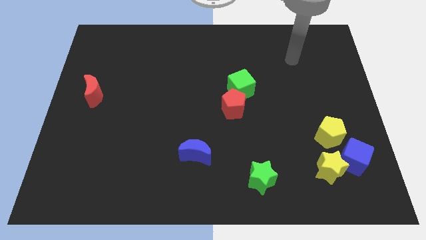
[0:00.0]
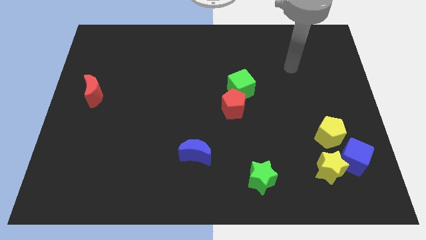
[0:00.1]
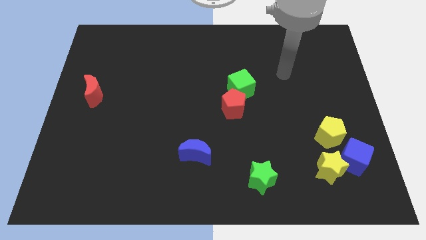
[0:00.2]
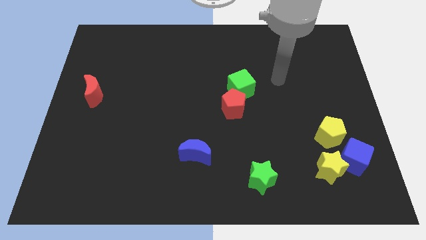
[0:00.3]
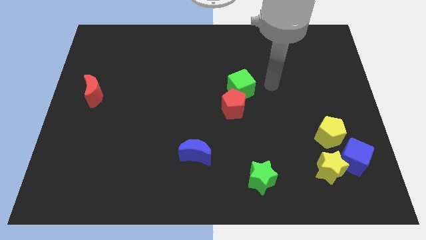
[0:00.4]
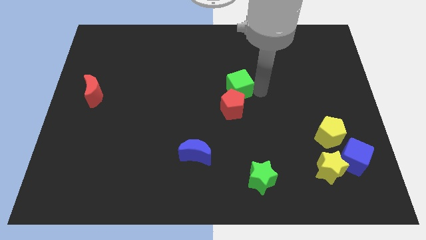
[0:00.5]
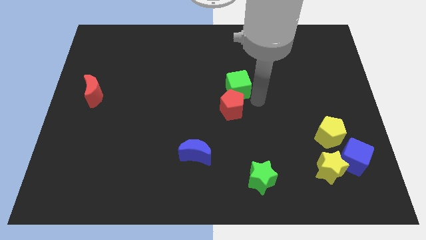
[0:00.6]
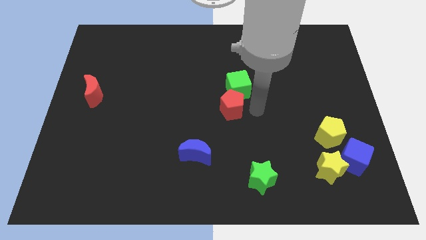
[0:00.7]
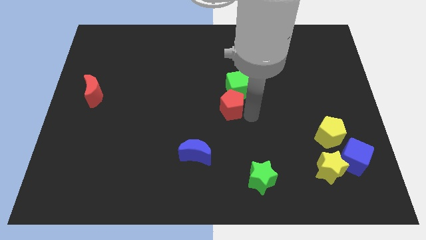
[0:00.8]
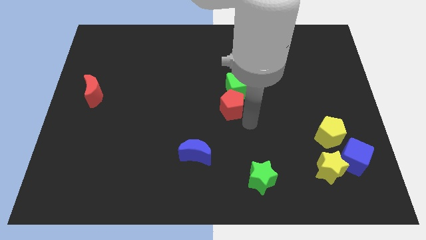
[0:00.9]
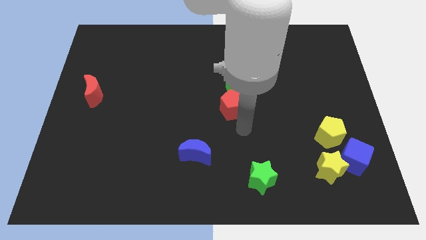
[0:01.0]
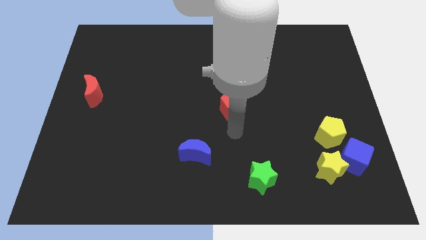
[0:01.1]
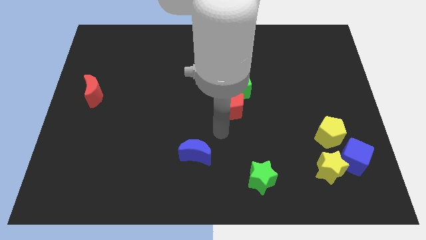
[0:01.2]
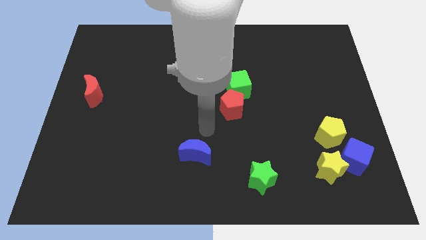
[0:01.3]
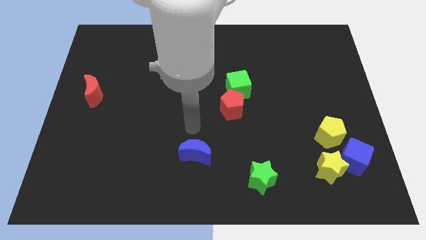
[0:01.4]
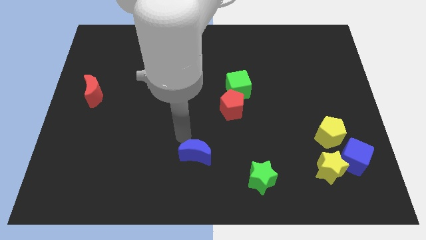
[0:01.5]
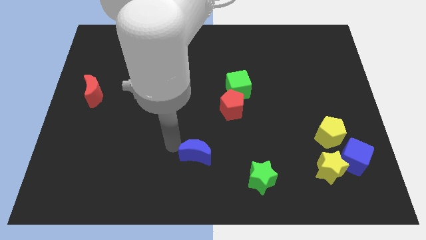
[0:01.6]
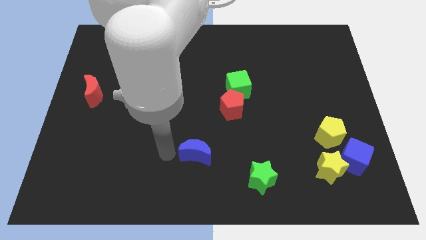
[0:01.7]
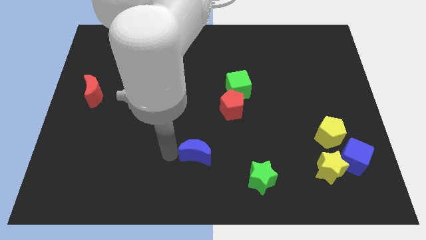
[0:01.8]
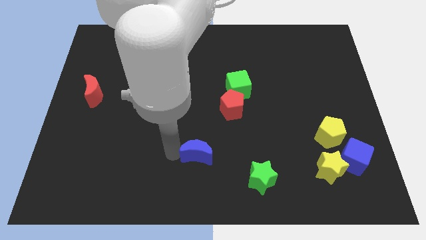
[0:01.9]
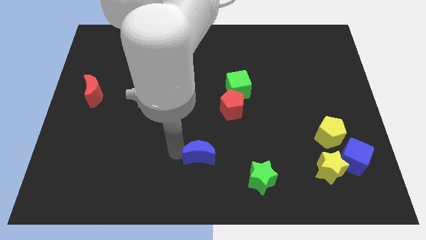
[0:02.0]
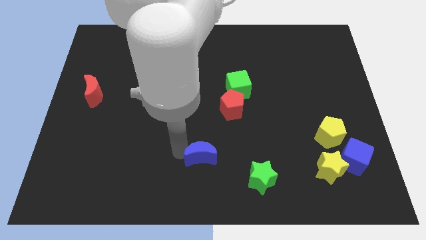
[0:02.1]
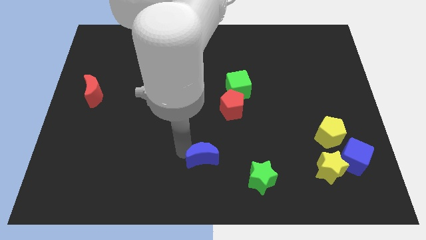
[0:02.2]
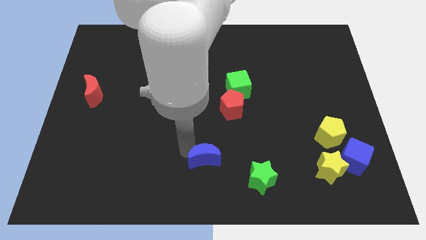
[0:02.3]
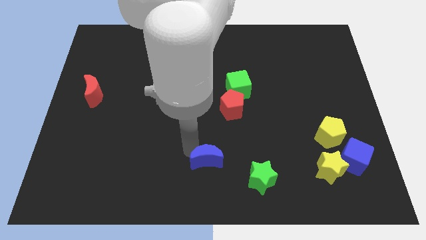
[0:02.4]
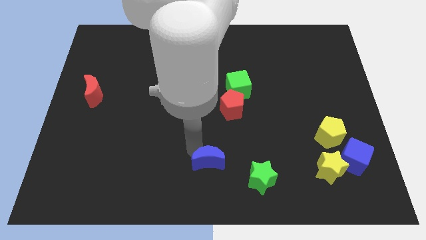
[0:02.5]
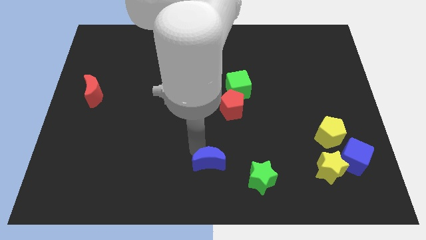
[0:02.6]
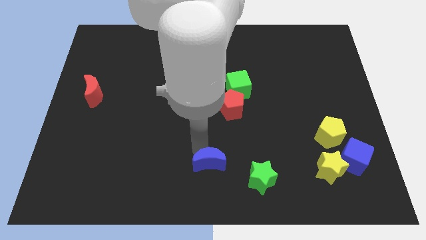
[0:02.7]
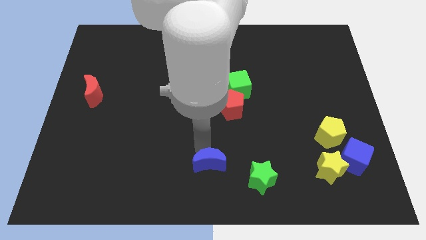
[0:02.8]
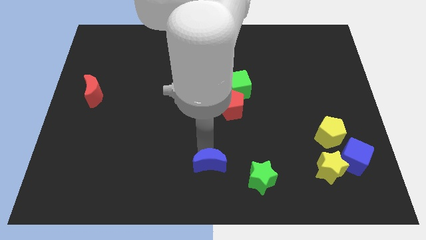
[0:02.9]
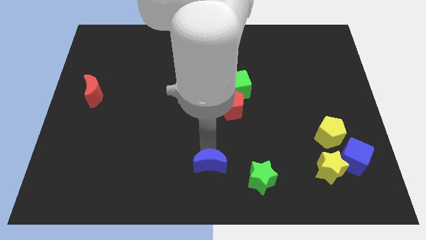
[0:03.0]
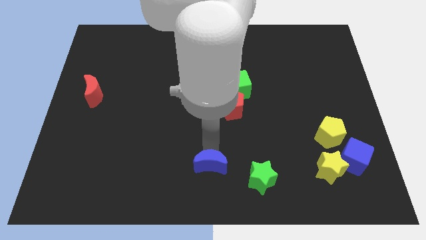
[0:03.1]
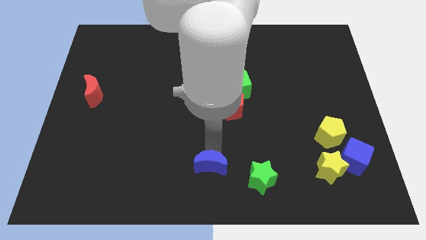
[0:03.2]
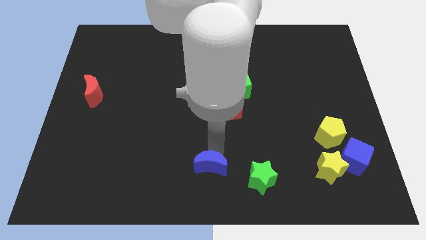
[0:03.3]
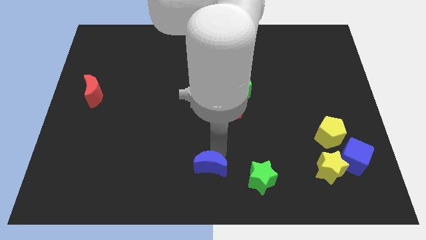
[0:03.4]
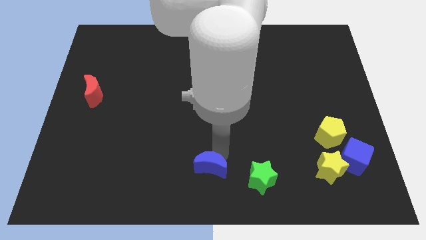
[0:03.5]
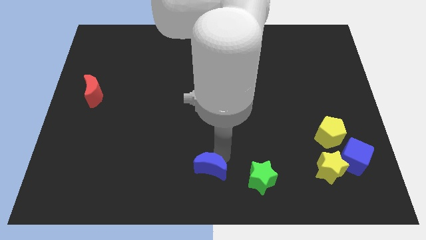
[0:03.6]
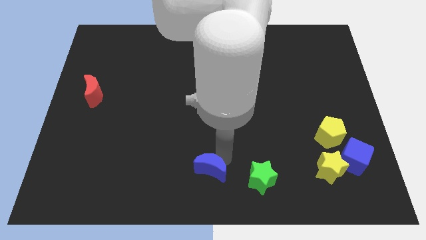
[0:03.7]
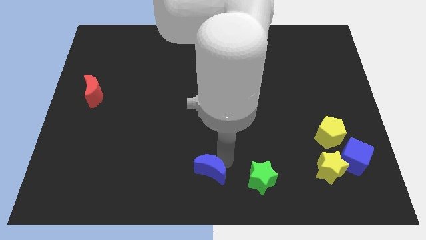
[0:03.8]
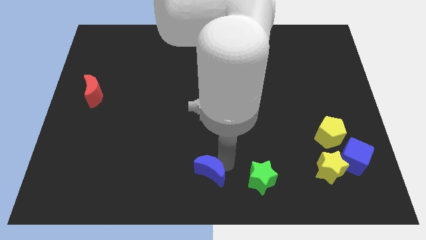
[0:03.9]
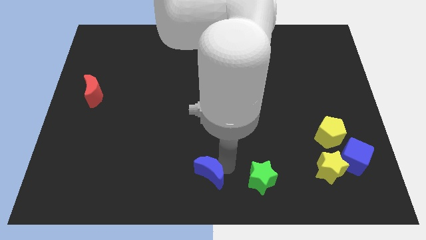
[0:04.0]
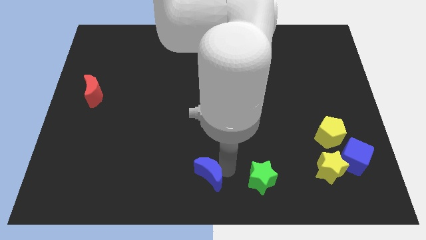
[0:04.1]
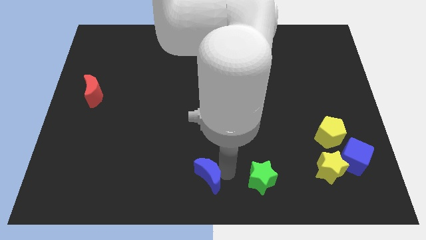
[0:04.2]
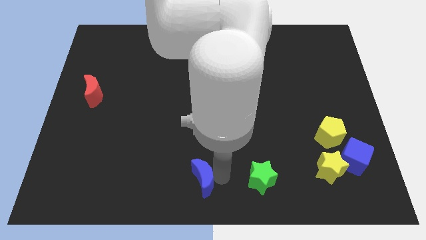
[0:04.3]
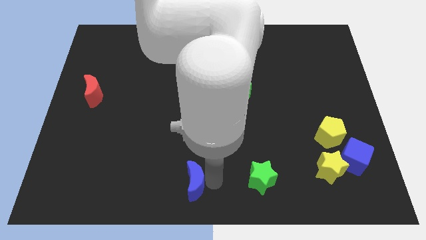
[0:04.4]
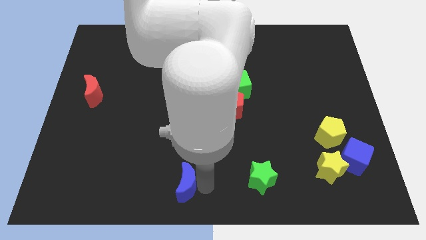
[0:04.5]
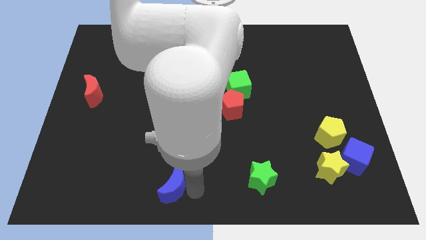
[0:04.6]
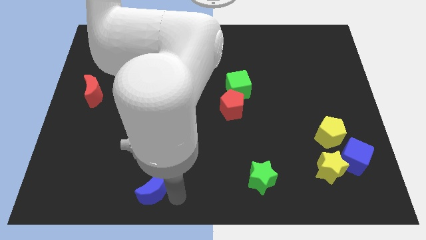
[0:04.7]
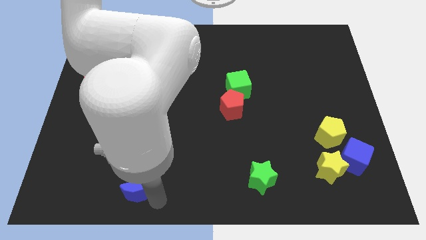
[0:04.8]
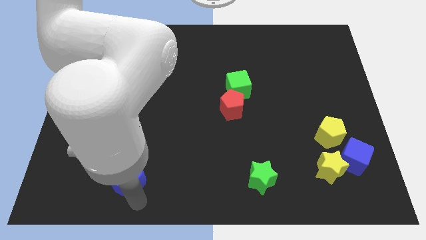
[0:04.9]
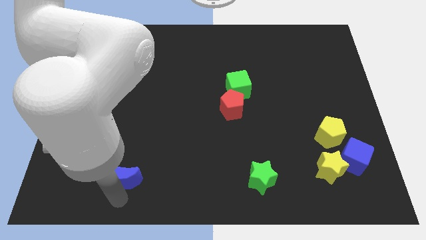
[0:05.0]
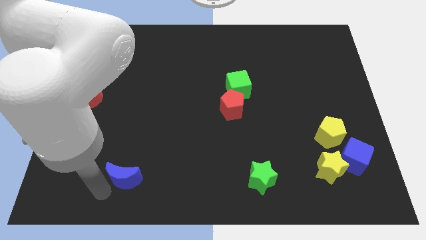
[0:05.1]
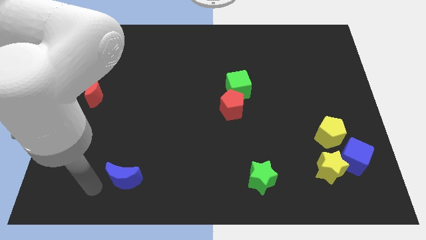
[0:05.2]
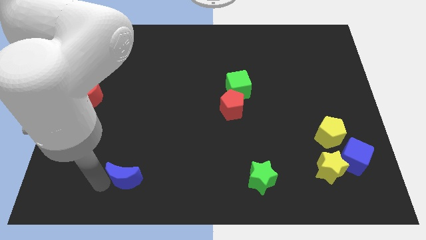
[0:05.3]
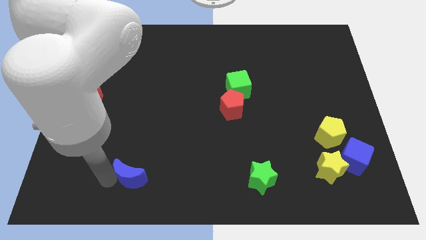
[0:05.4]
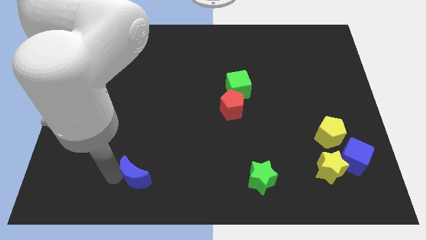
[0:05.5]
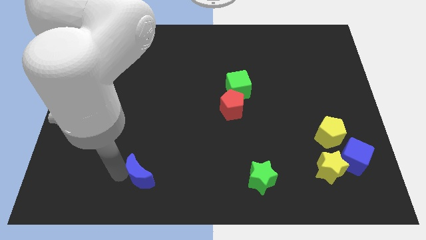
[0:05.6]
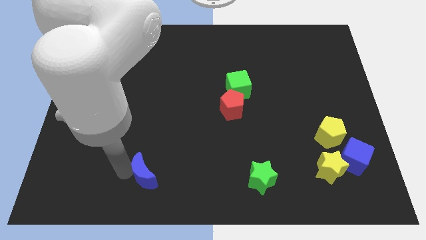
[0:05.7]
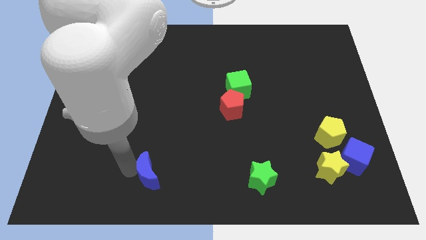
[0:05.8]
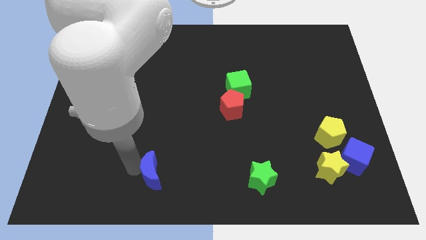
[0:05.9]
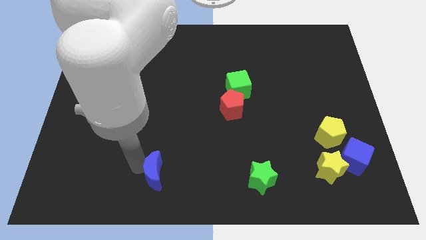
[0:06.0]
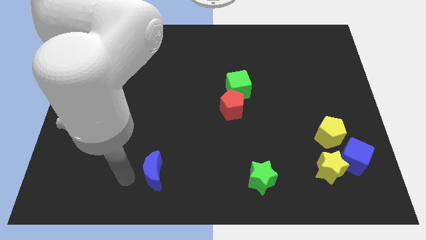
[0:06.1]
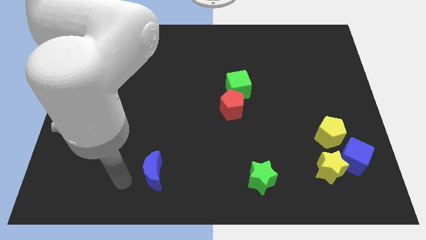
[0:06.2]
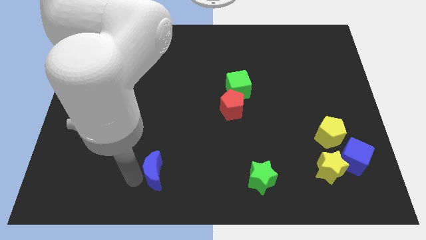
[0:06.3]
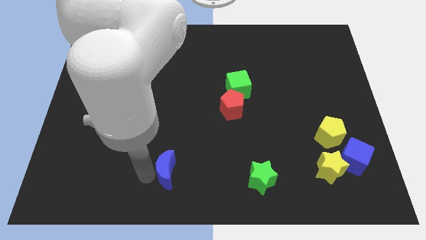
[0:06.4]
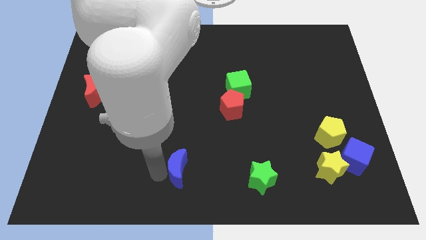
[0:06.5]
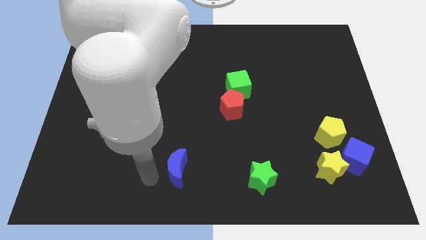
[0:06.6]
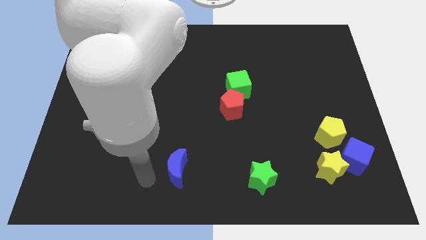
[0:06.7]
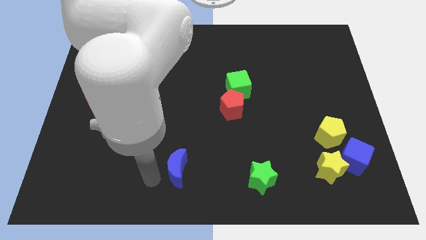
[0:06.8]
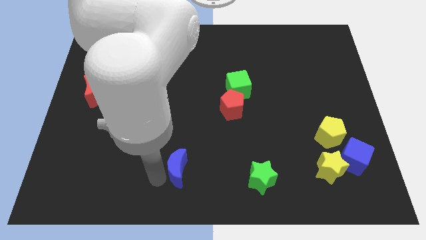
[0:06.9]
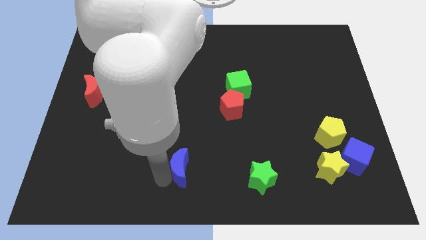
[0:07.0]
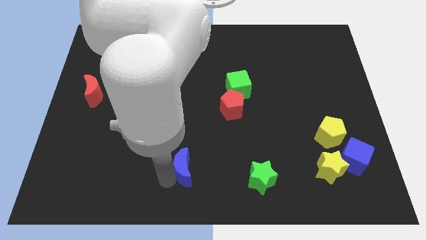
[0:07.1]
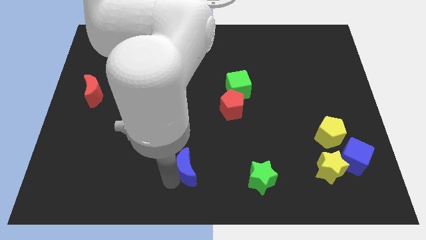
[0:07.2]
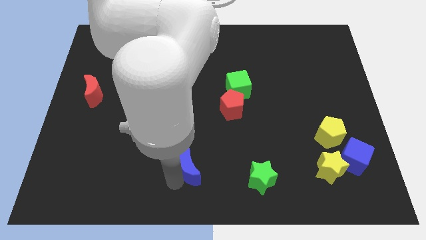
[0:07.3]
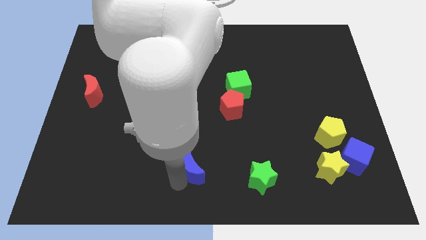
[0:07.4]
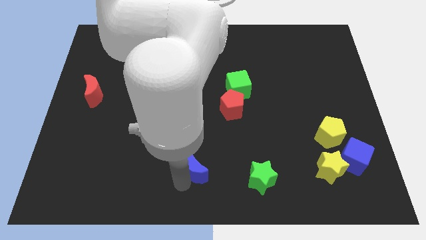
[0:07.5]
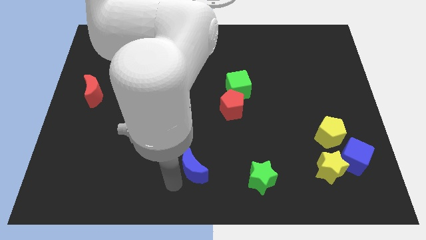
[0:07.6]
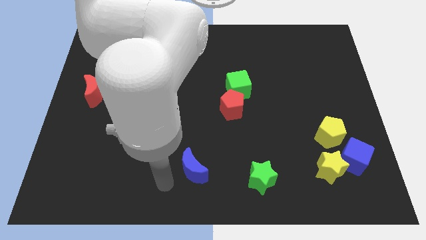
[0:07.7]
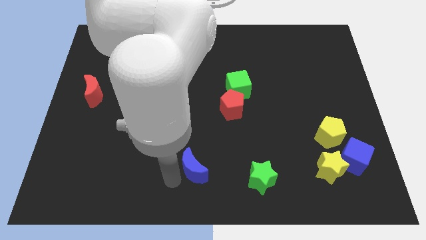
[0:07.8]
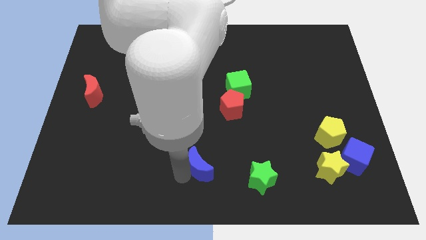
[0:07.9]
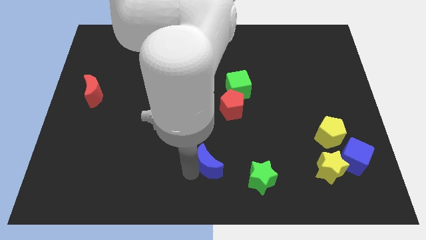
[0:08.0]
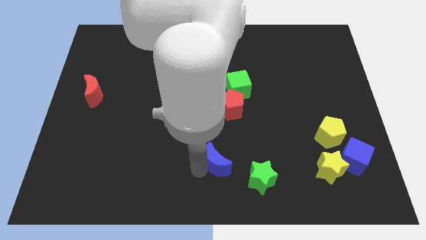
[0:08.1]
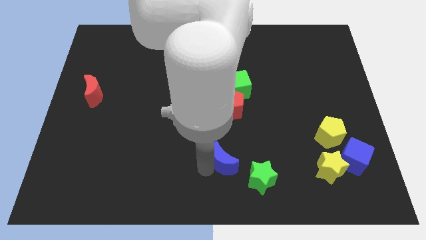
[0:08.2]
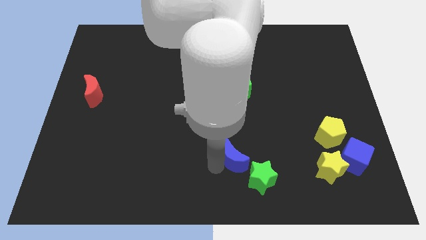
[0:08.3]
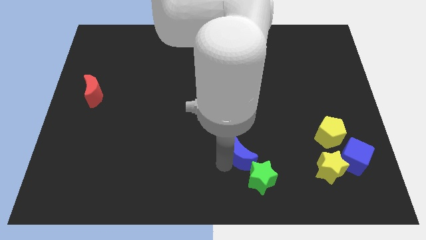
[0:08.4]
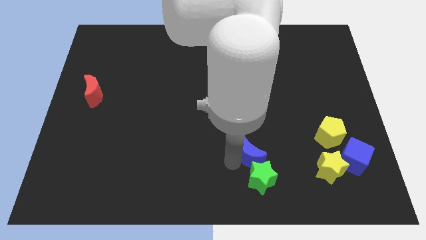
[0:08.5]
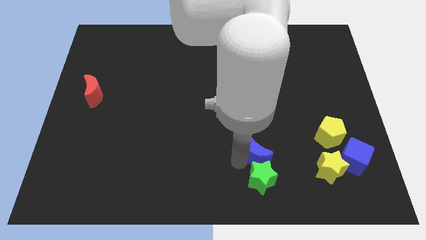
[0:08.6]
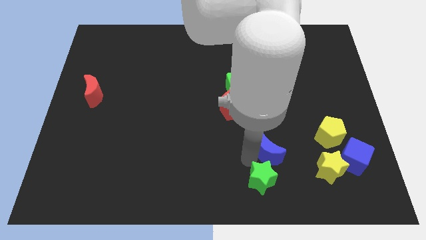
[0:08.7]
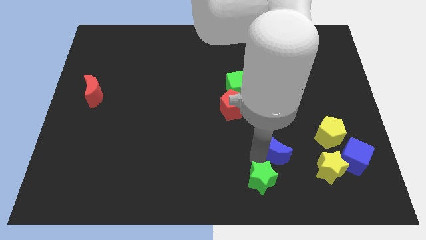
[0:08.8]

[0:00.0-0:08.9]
put the blue moon just left of the yellow pentagon
